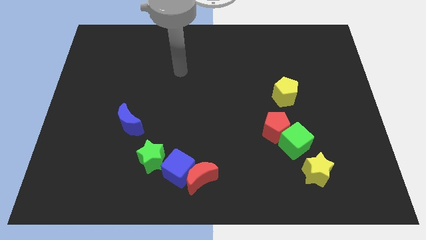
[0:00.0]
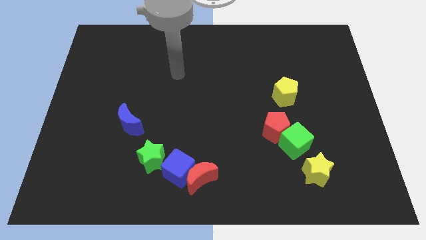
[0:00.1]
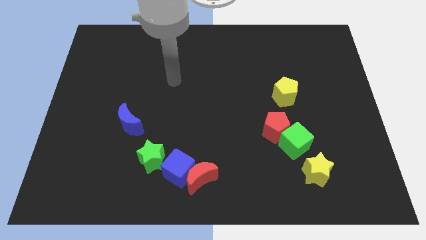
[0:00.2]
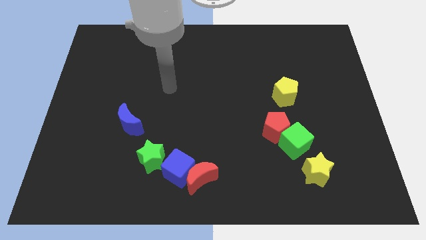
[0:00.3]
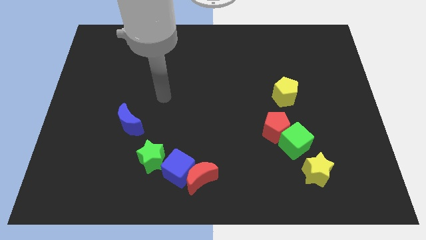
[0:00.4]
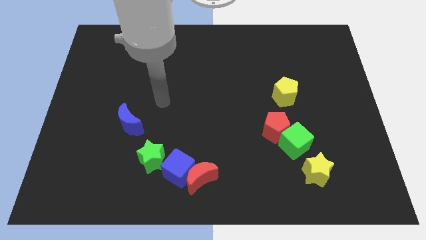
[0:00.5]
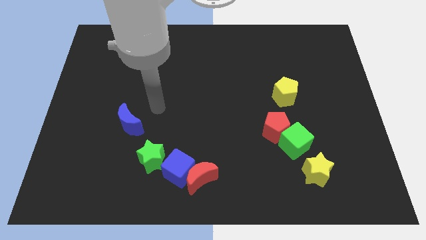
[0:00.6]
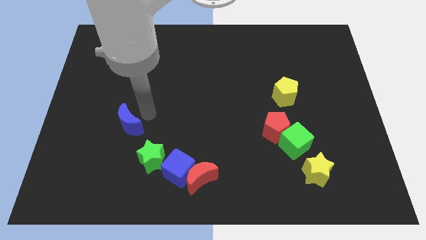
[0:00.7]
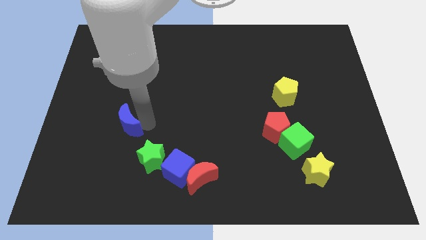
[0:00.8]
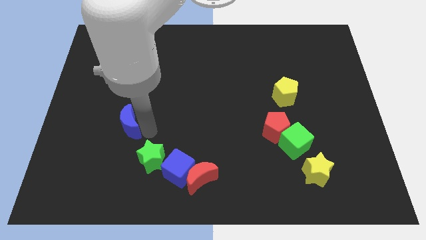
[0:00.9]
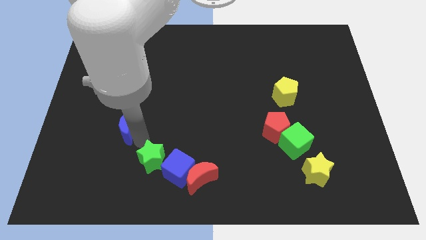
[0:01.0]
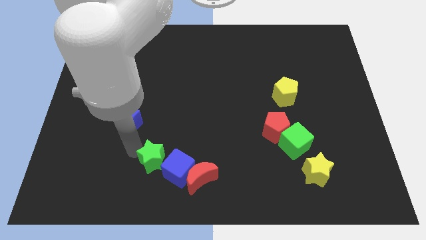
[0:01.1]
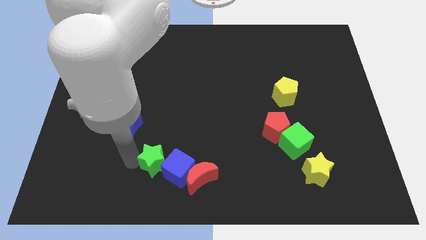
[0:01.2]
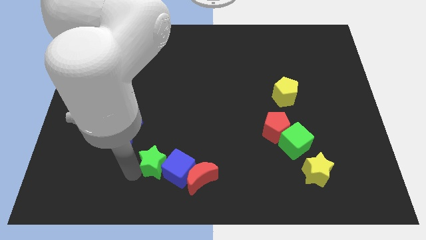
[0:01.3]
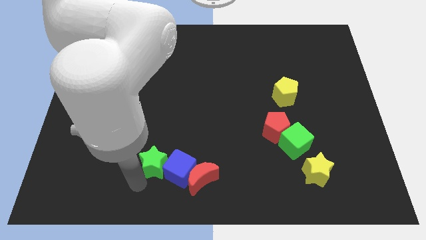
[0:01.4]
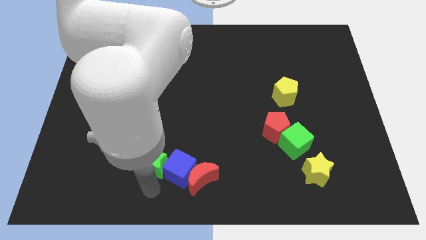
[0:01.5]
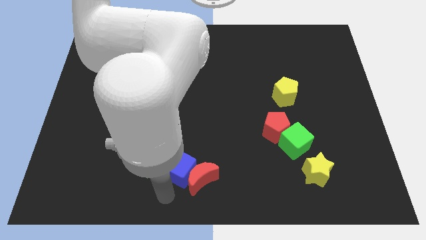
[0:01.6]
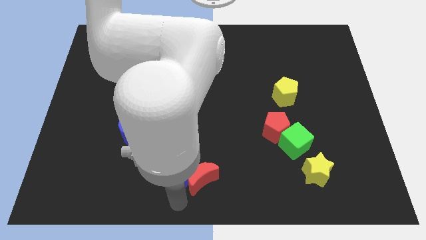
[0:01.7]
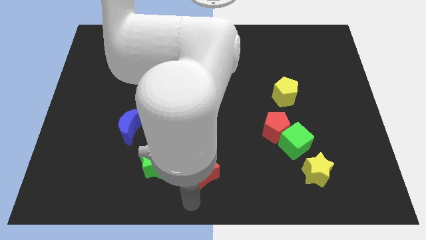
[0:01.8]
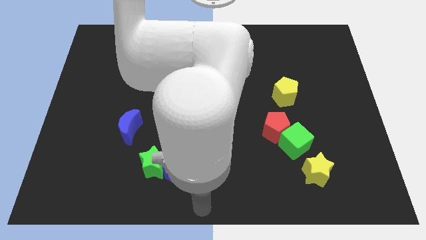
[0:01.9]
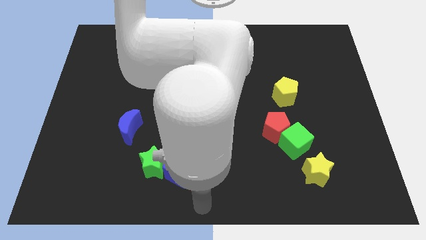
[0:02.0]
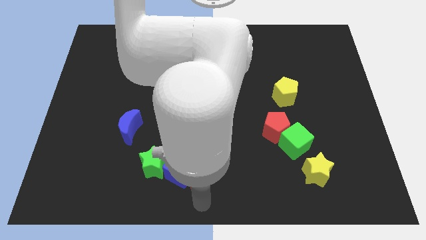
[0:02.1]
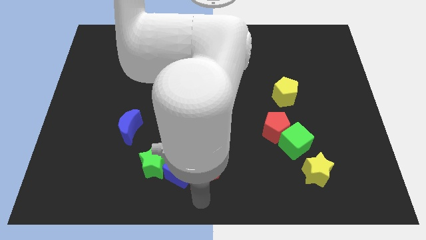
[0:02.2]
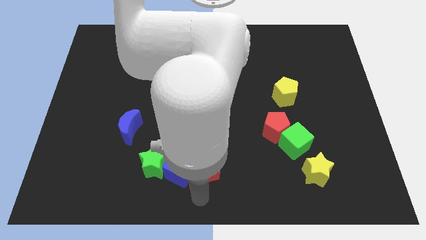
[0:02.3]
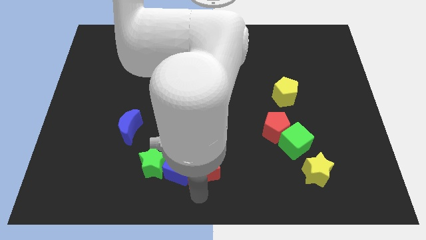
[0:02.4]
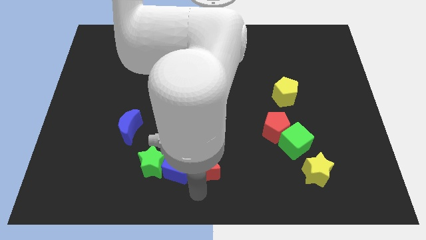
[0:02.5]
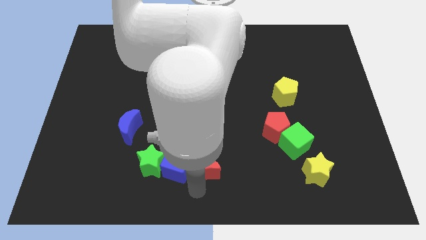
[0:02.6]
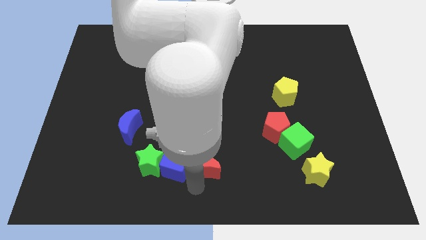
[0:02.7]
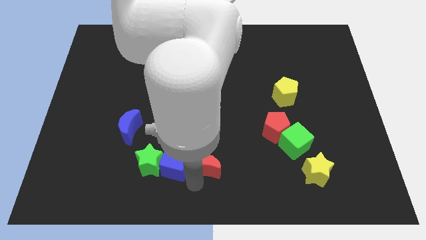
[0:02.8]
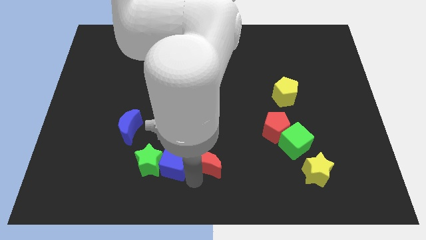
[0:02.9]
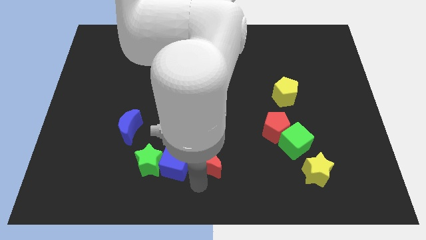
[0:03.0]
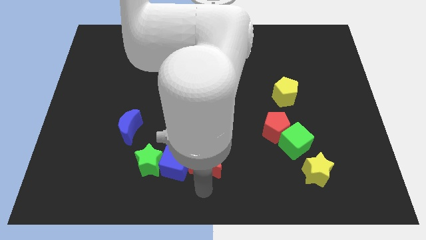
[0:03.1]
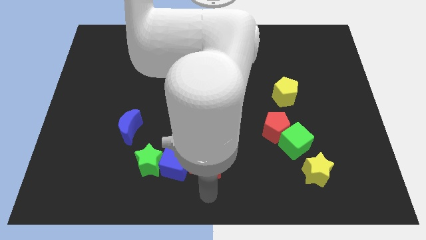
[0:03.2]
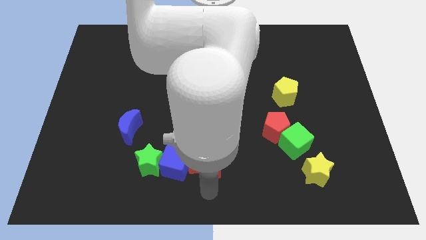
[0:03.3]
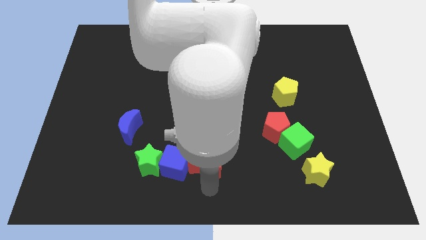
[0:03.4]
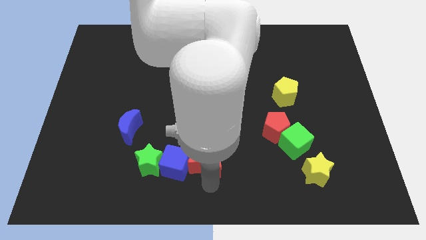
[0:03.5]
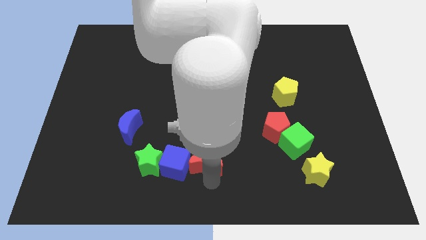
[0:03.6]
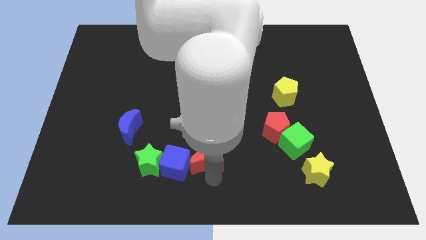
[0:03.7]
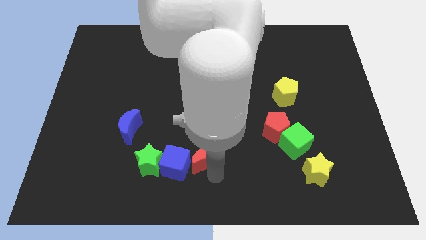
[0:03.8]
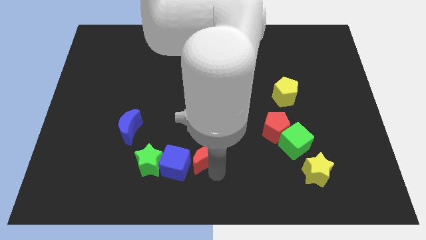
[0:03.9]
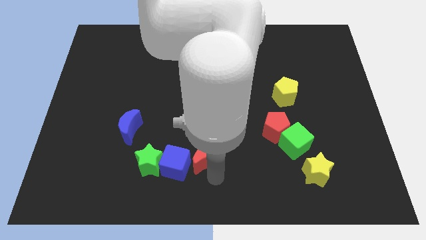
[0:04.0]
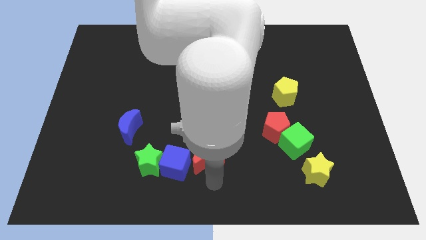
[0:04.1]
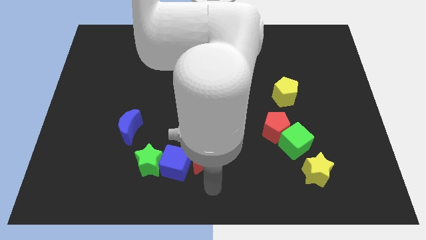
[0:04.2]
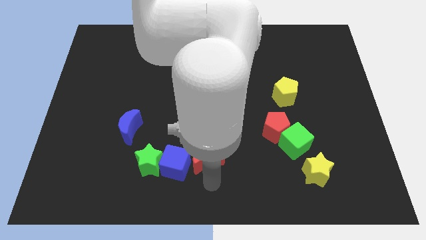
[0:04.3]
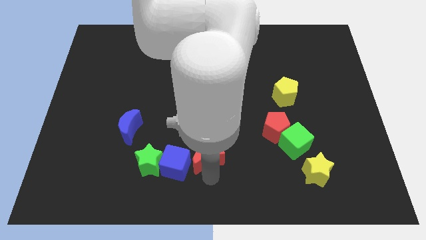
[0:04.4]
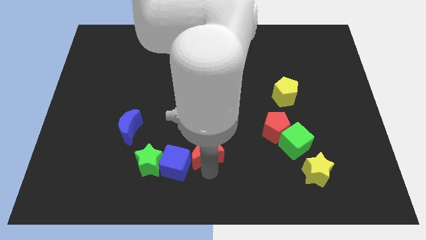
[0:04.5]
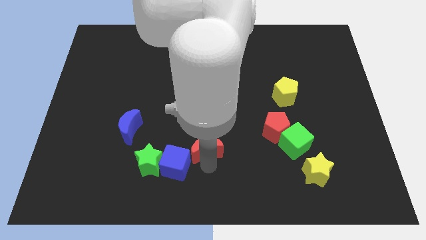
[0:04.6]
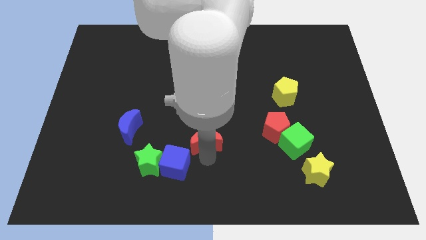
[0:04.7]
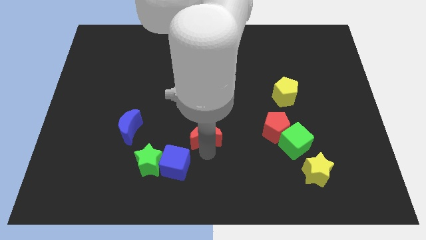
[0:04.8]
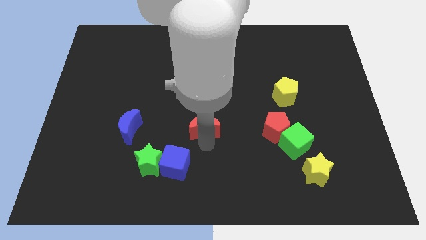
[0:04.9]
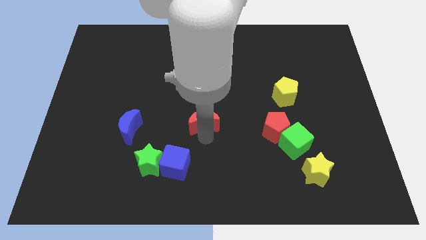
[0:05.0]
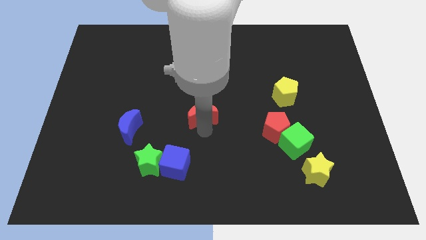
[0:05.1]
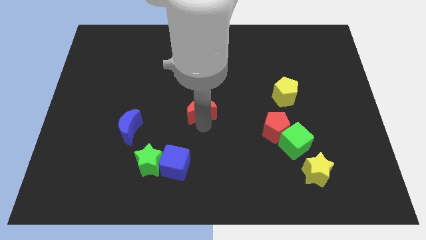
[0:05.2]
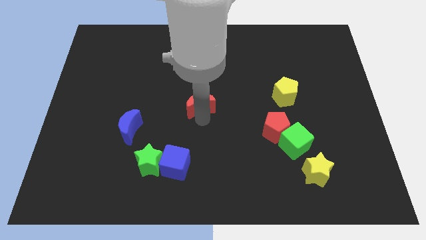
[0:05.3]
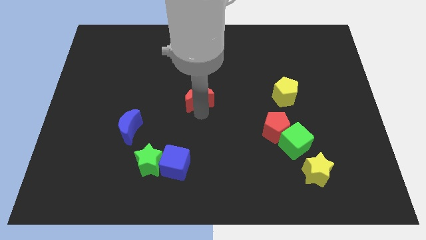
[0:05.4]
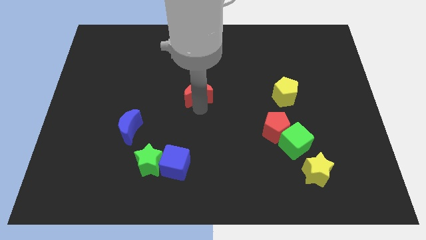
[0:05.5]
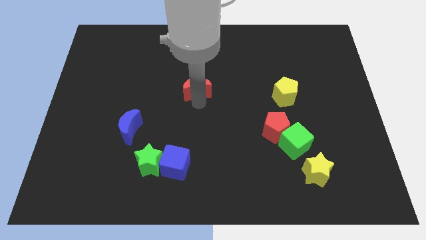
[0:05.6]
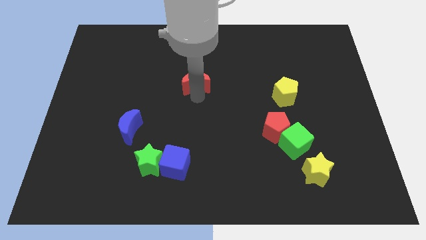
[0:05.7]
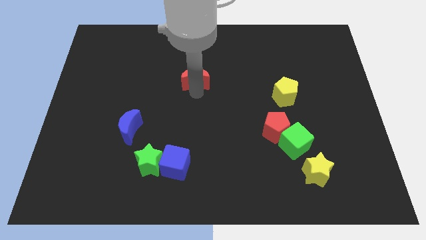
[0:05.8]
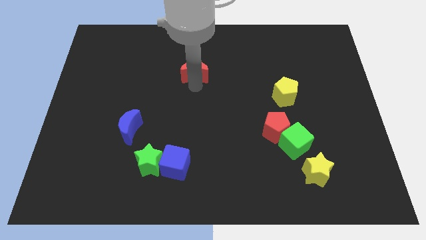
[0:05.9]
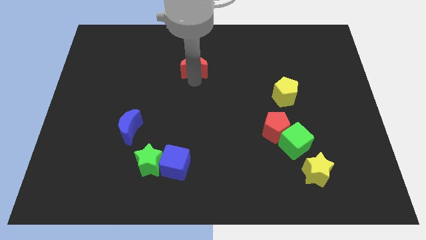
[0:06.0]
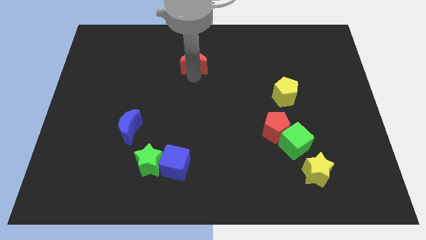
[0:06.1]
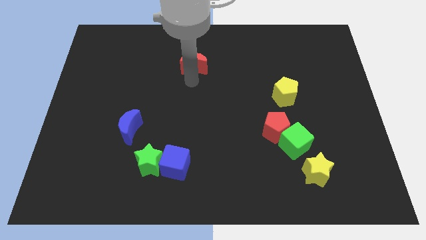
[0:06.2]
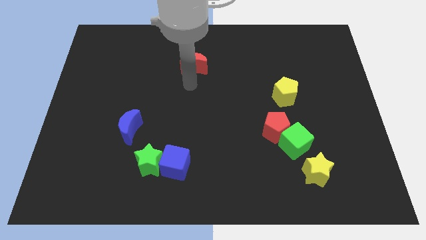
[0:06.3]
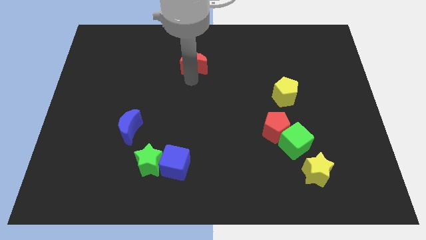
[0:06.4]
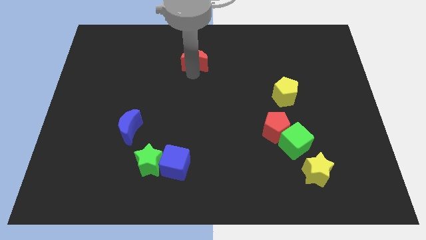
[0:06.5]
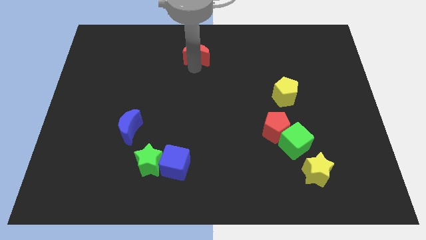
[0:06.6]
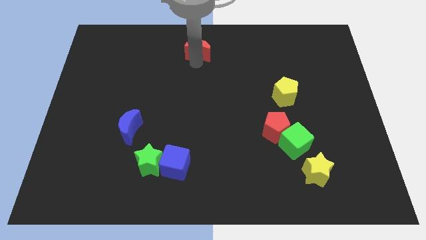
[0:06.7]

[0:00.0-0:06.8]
slide the red moon to the top

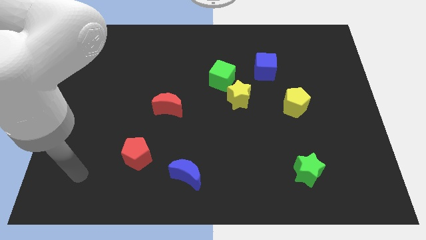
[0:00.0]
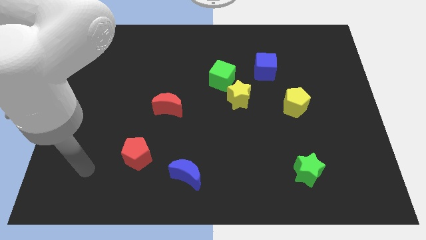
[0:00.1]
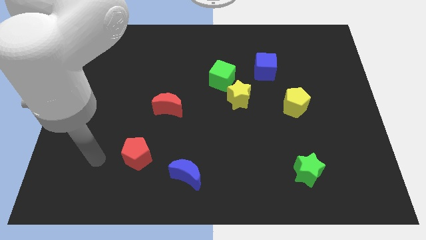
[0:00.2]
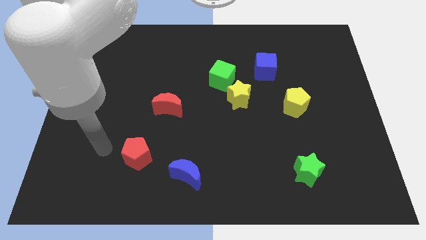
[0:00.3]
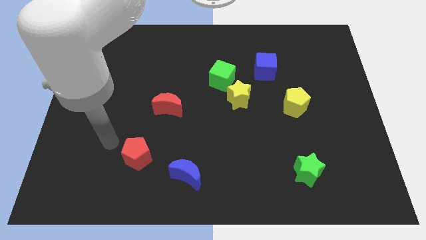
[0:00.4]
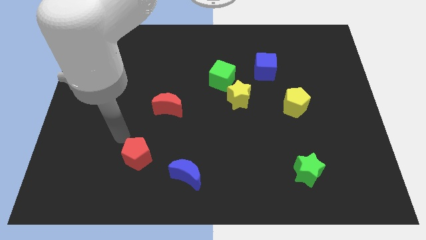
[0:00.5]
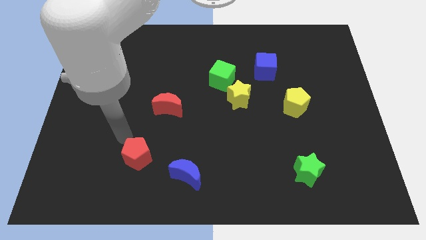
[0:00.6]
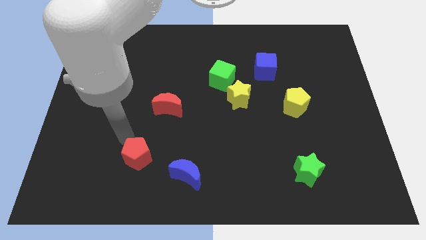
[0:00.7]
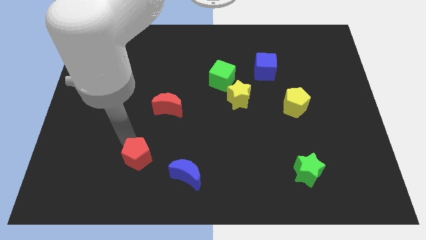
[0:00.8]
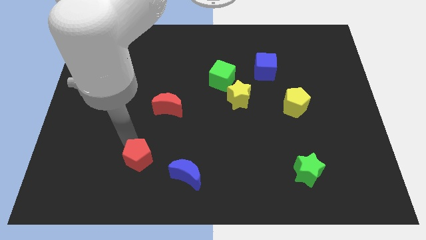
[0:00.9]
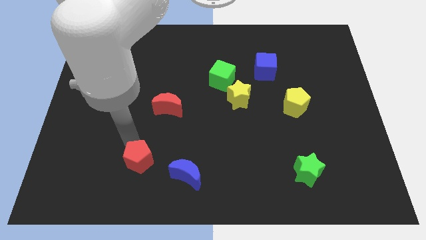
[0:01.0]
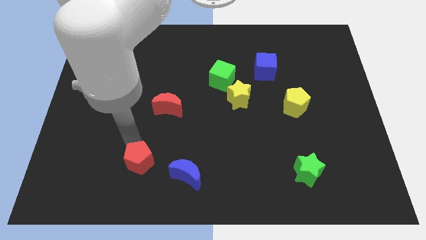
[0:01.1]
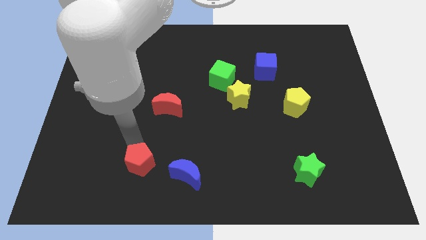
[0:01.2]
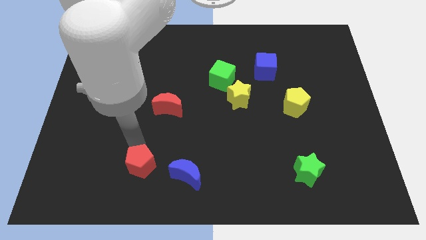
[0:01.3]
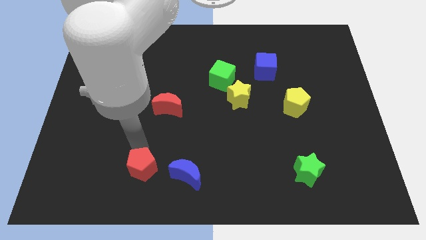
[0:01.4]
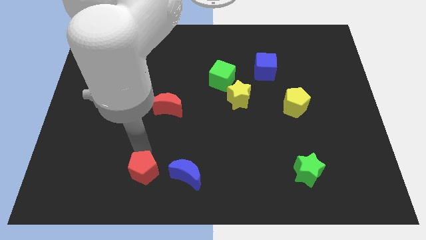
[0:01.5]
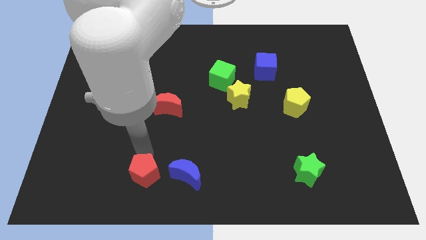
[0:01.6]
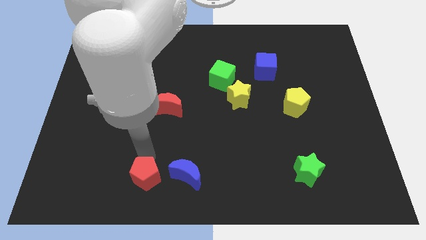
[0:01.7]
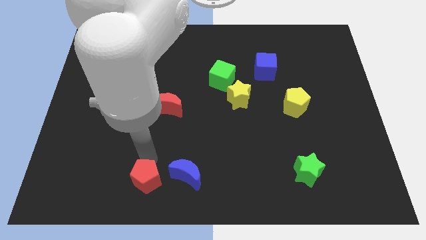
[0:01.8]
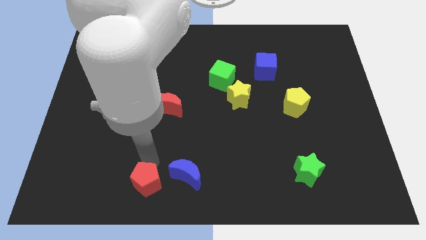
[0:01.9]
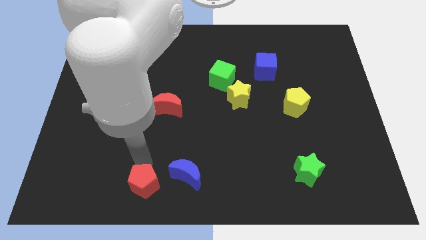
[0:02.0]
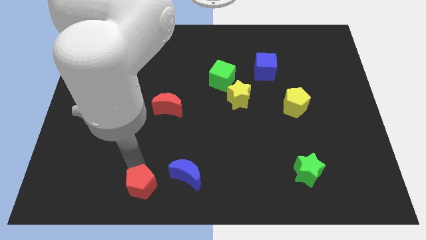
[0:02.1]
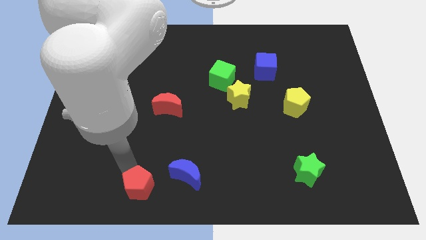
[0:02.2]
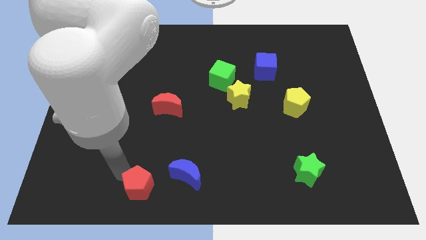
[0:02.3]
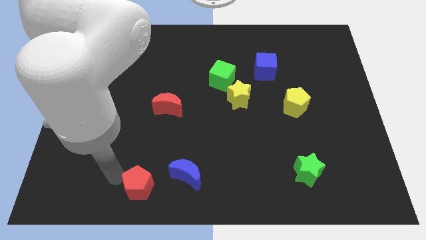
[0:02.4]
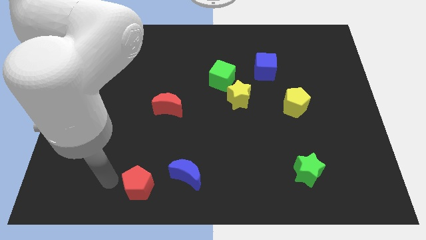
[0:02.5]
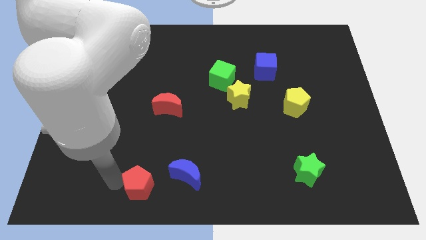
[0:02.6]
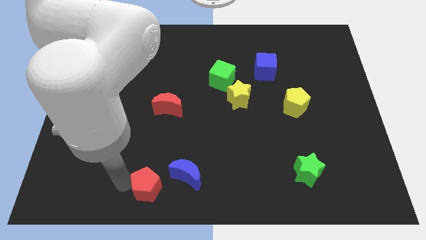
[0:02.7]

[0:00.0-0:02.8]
move the red pentagon to the bottom side
